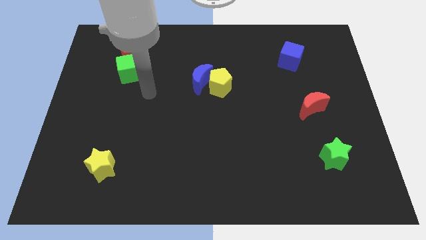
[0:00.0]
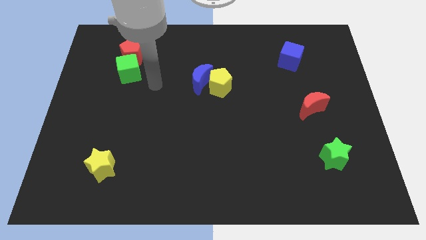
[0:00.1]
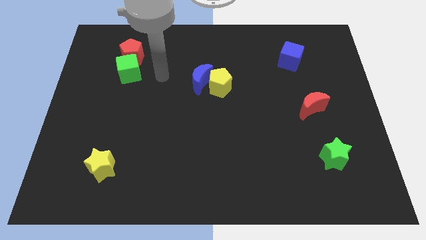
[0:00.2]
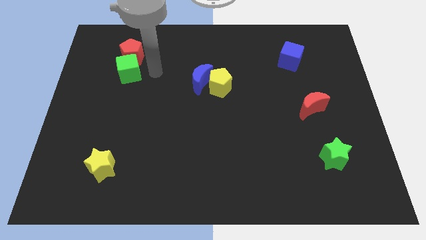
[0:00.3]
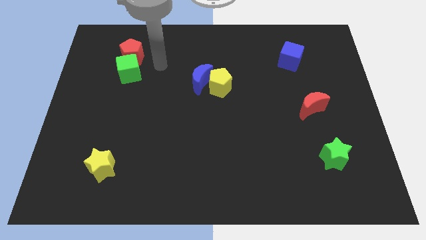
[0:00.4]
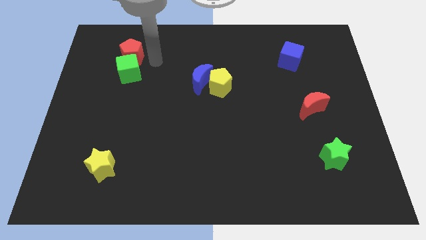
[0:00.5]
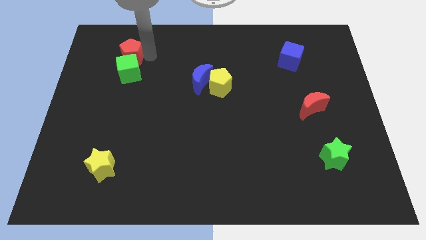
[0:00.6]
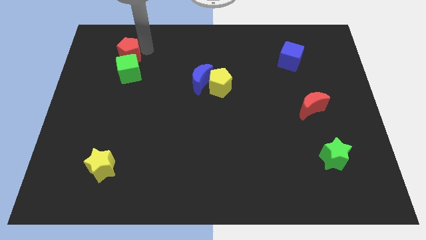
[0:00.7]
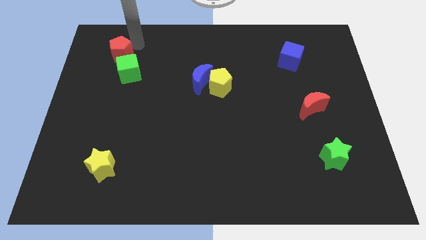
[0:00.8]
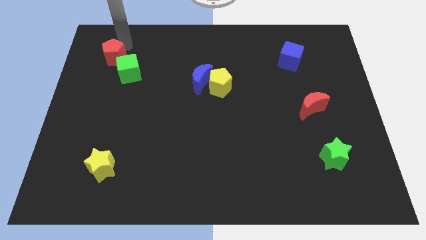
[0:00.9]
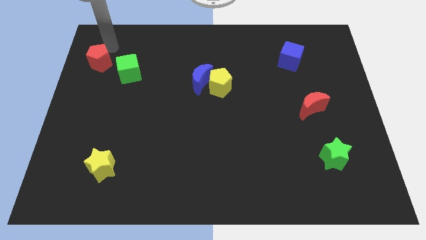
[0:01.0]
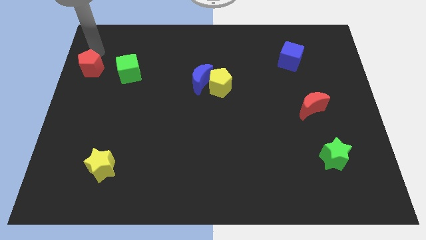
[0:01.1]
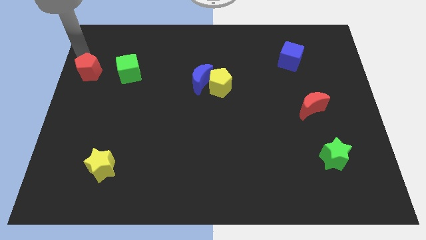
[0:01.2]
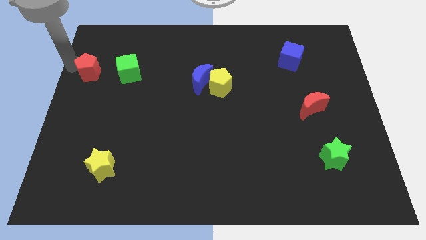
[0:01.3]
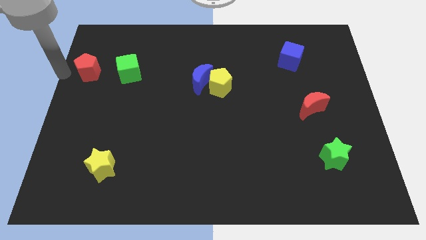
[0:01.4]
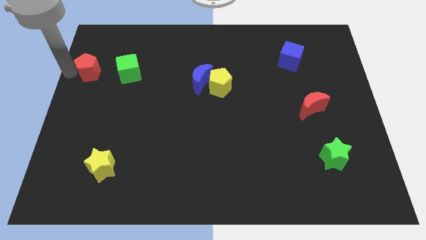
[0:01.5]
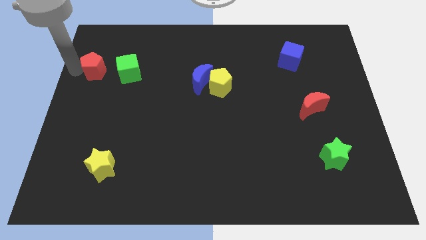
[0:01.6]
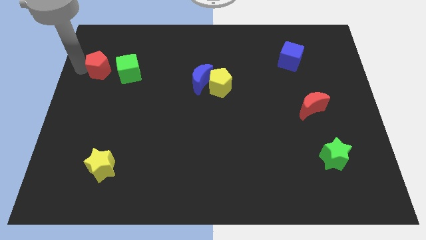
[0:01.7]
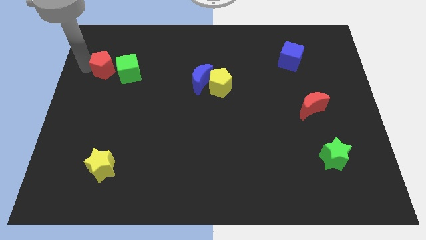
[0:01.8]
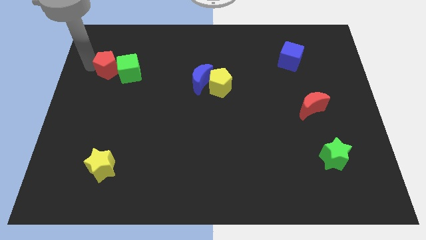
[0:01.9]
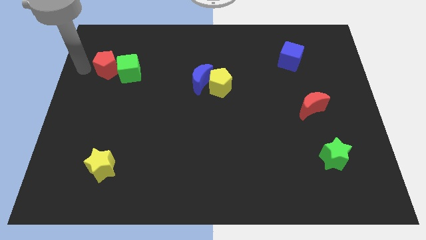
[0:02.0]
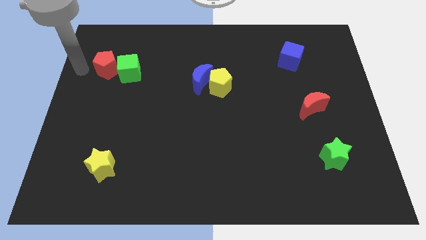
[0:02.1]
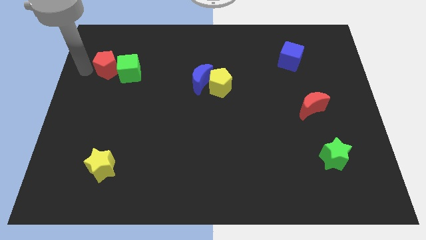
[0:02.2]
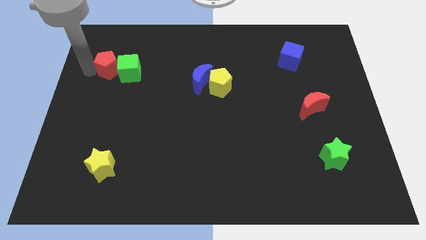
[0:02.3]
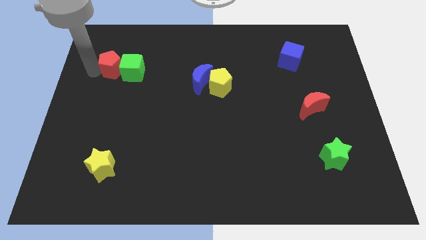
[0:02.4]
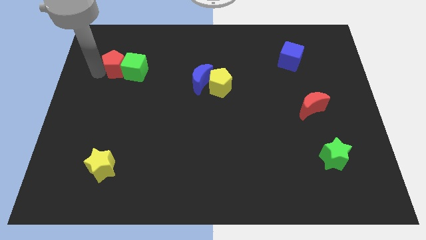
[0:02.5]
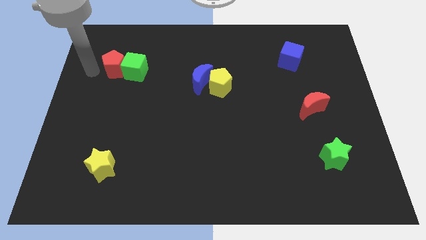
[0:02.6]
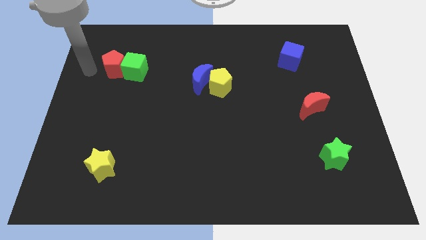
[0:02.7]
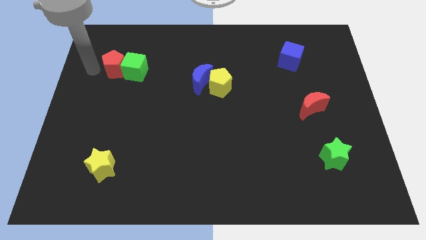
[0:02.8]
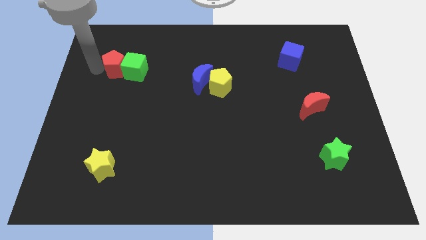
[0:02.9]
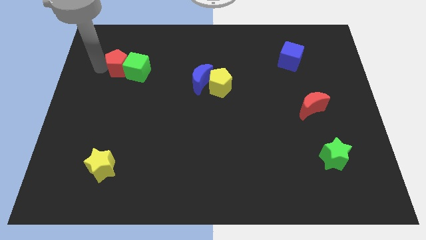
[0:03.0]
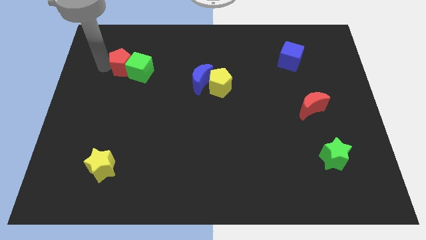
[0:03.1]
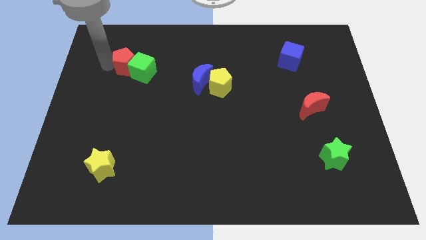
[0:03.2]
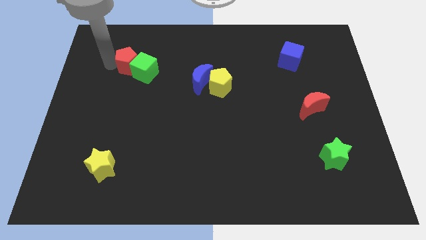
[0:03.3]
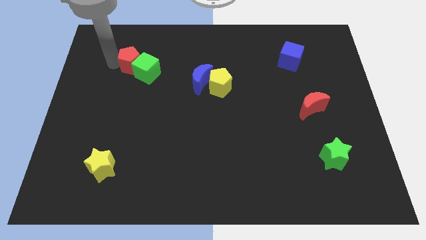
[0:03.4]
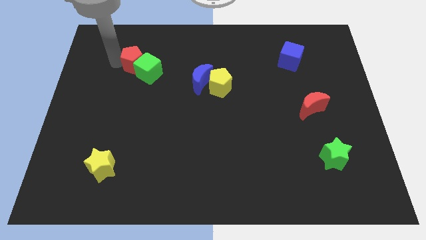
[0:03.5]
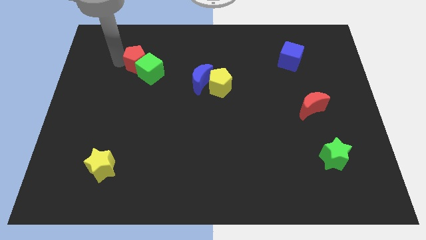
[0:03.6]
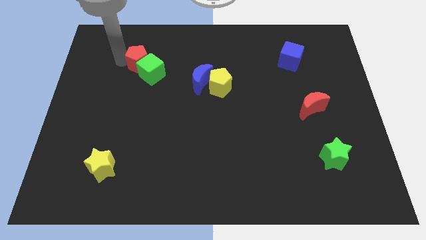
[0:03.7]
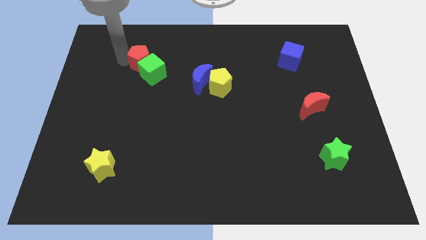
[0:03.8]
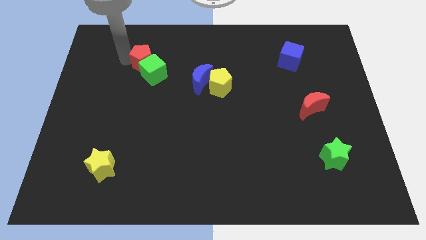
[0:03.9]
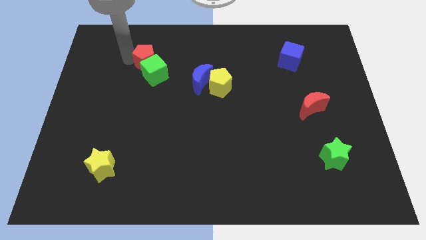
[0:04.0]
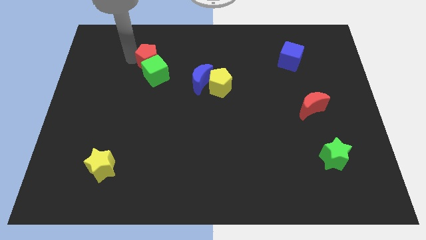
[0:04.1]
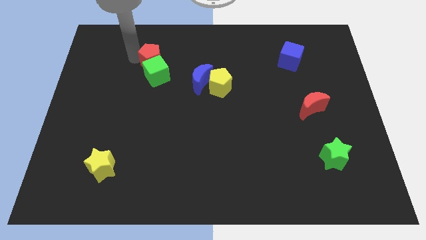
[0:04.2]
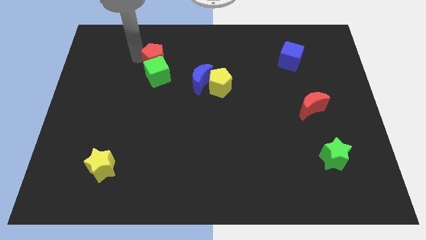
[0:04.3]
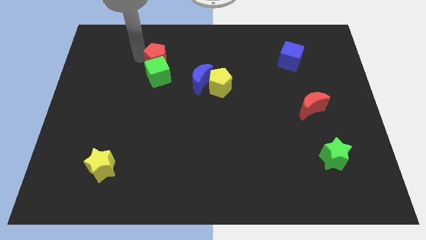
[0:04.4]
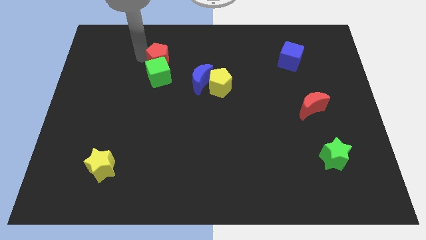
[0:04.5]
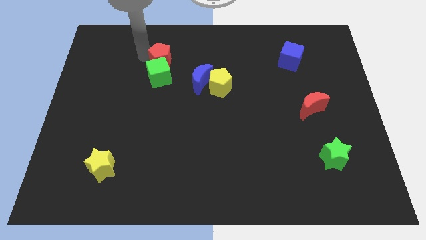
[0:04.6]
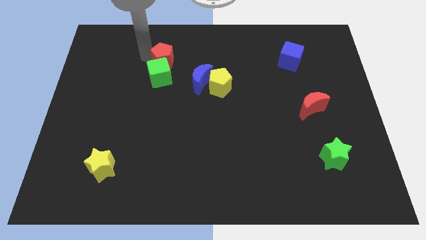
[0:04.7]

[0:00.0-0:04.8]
slide the red pentagon diagonally up and to the left of the blue moon

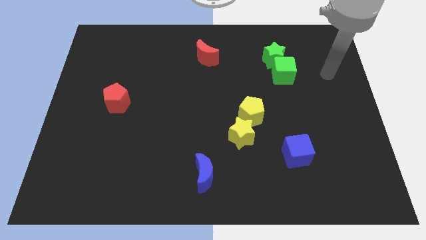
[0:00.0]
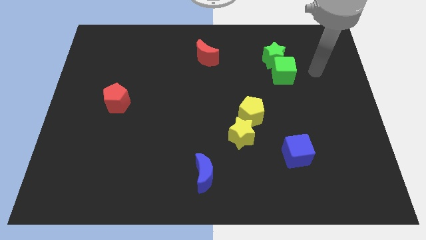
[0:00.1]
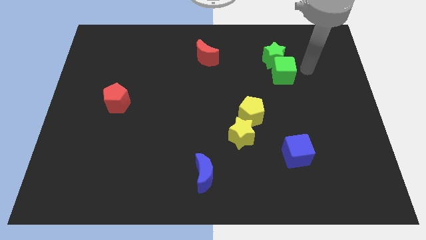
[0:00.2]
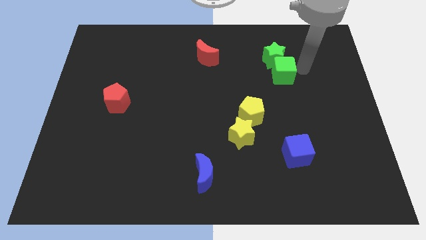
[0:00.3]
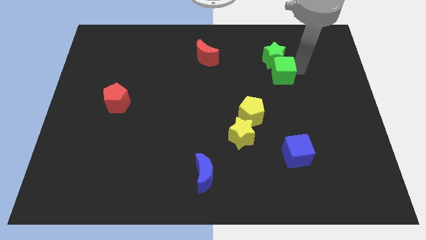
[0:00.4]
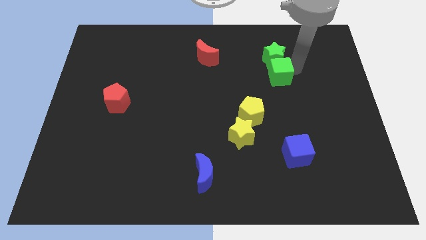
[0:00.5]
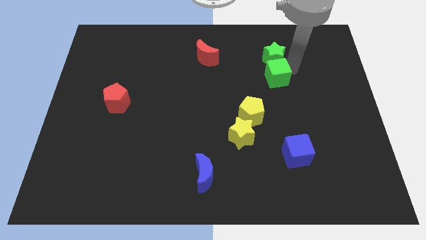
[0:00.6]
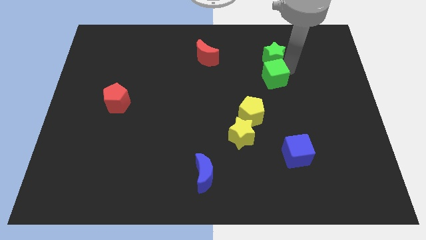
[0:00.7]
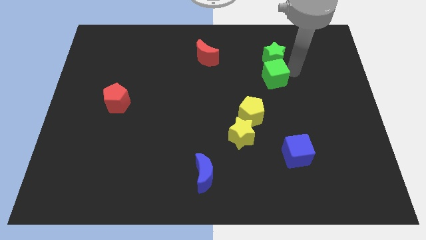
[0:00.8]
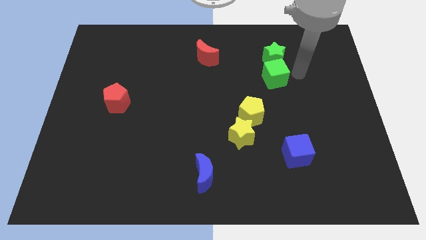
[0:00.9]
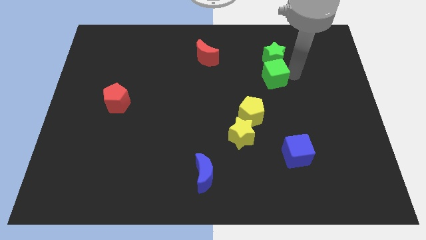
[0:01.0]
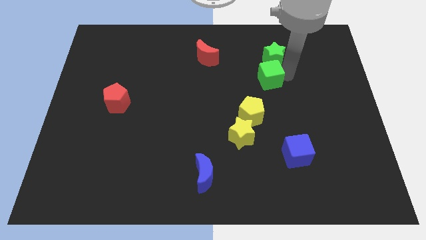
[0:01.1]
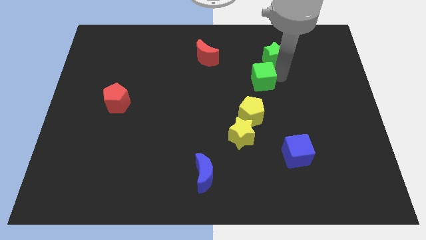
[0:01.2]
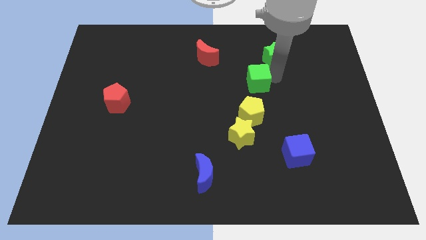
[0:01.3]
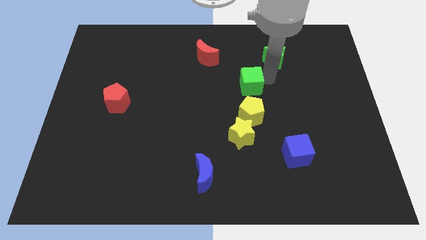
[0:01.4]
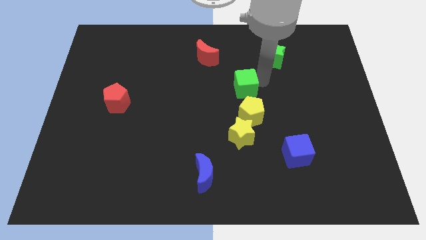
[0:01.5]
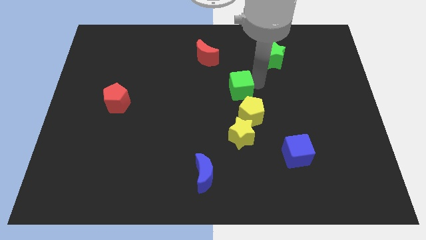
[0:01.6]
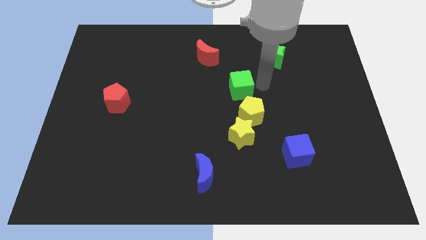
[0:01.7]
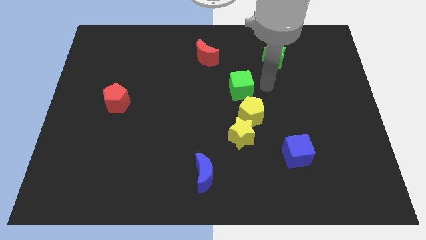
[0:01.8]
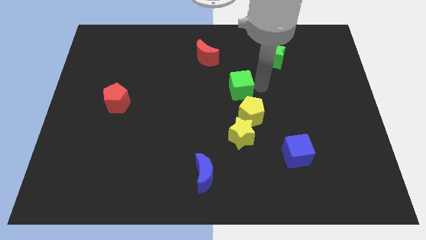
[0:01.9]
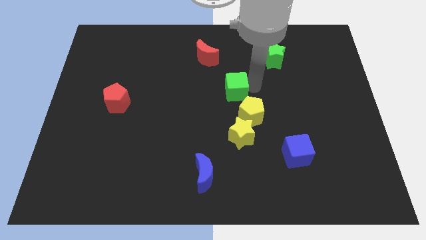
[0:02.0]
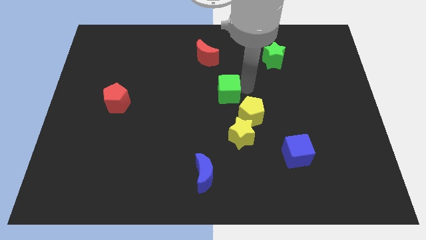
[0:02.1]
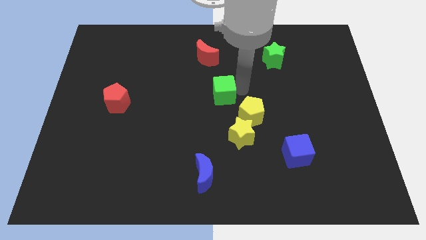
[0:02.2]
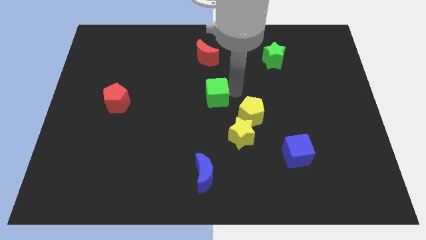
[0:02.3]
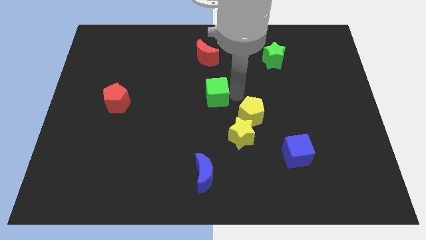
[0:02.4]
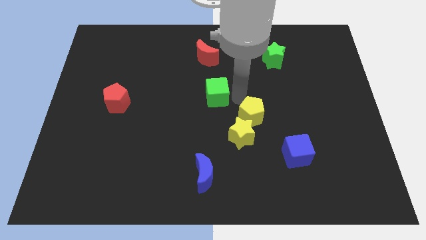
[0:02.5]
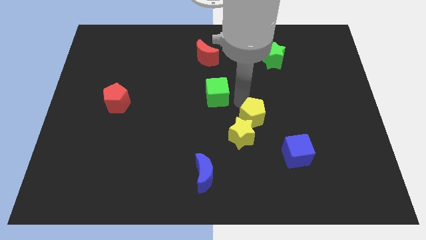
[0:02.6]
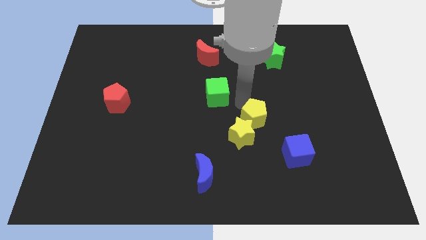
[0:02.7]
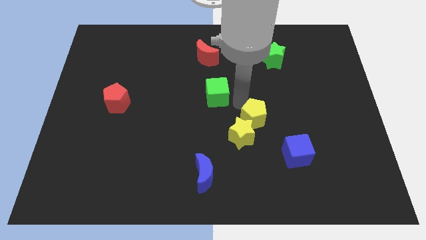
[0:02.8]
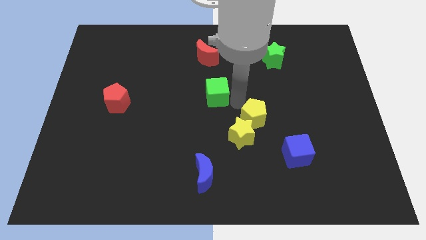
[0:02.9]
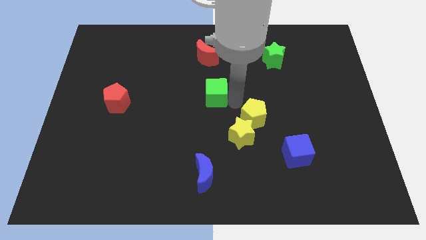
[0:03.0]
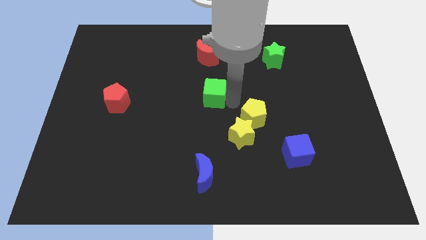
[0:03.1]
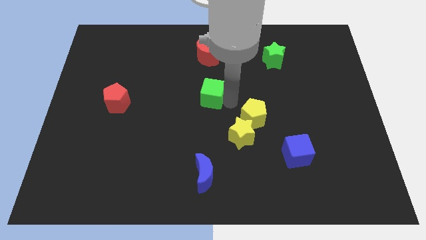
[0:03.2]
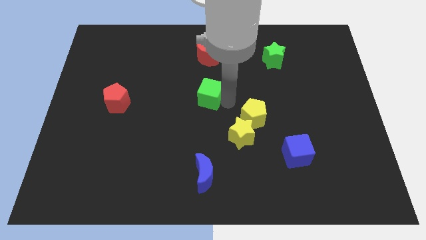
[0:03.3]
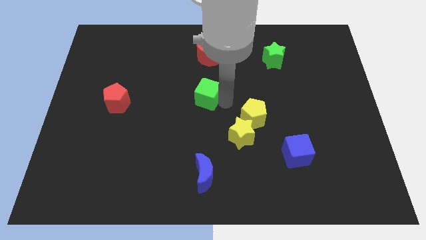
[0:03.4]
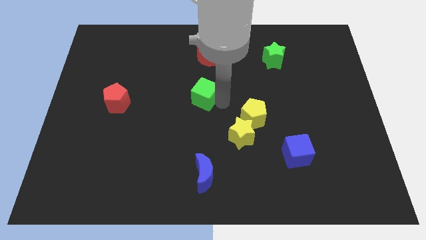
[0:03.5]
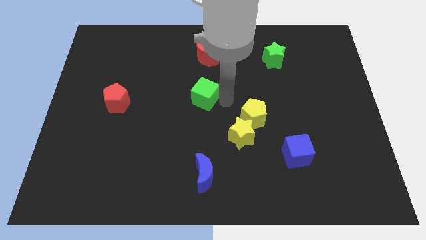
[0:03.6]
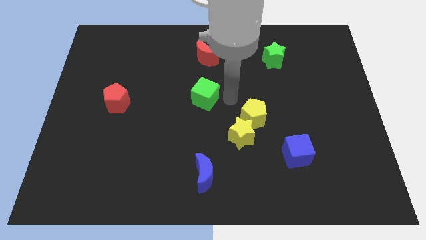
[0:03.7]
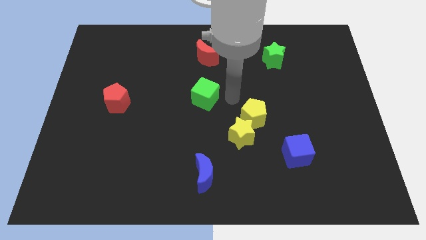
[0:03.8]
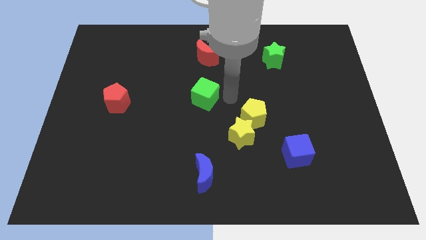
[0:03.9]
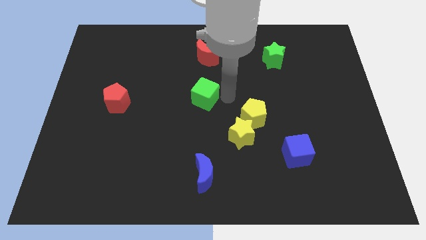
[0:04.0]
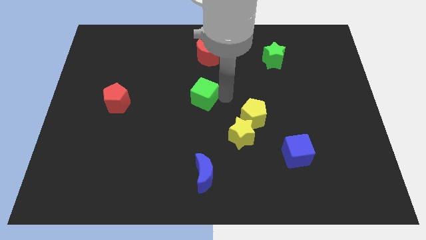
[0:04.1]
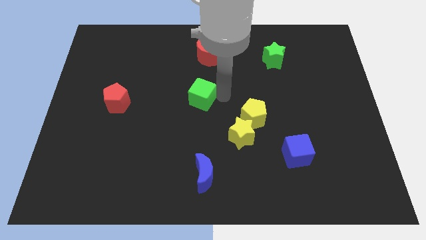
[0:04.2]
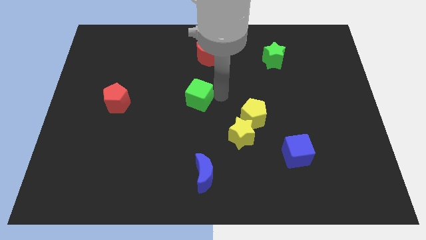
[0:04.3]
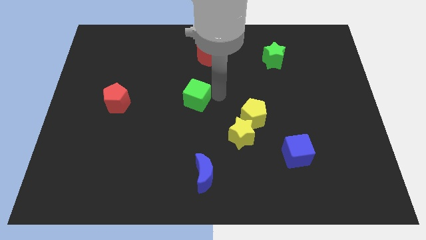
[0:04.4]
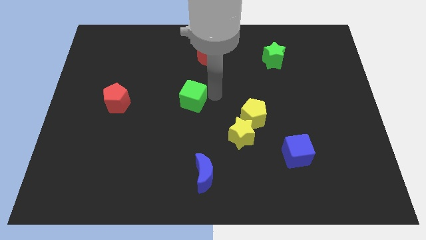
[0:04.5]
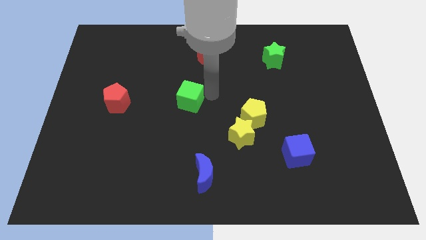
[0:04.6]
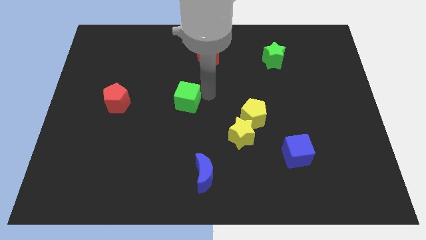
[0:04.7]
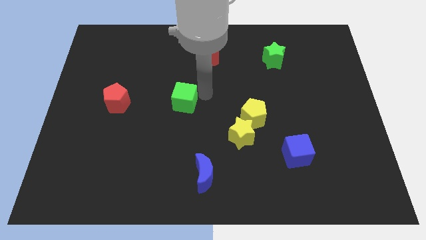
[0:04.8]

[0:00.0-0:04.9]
put the green cube to the right of the red pentagon
